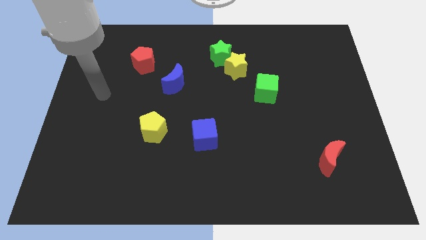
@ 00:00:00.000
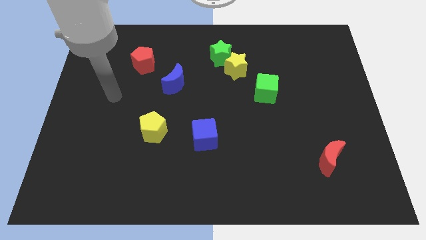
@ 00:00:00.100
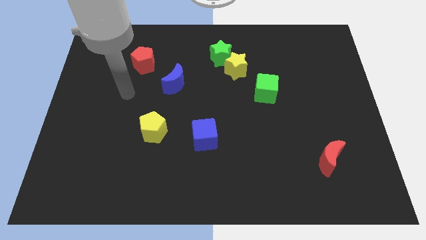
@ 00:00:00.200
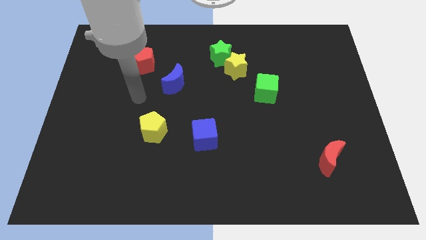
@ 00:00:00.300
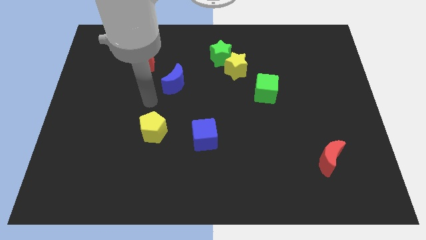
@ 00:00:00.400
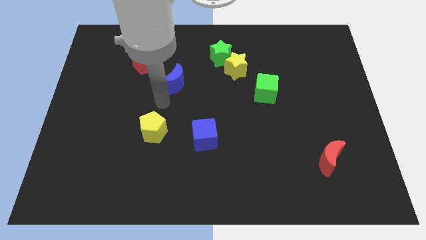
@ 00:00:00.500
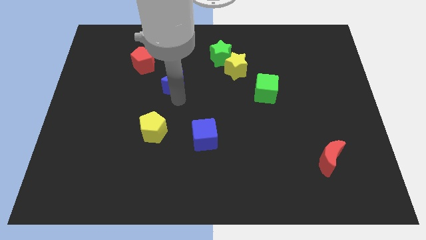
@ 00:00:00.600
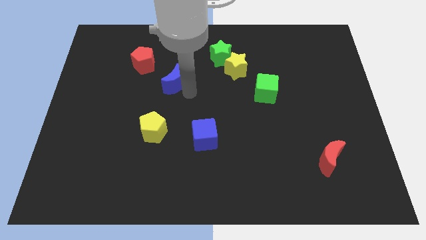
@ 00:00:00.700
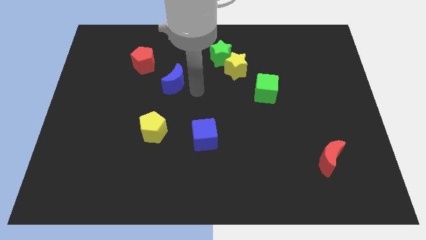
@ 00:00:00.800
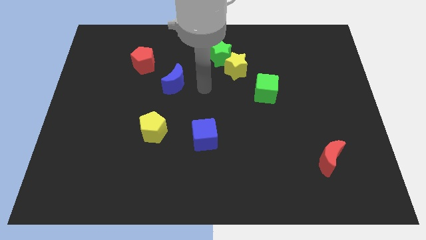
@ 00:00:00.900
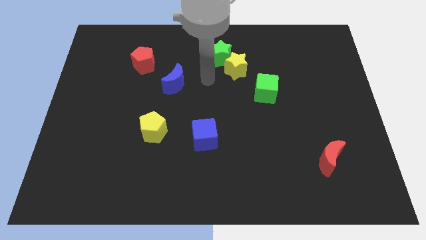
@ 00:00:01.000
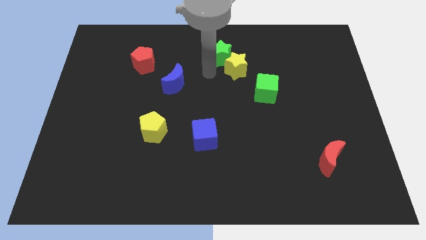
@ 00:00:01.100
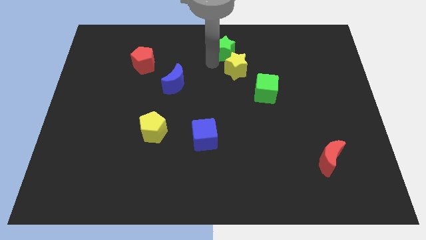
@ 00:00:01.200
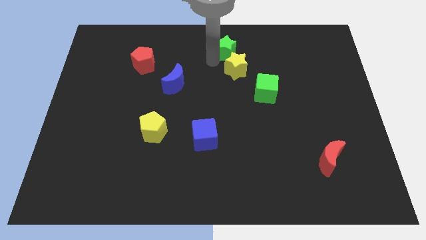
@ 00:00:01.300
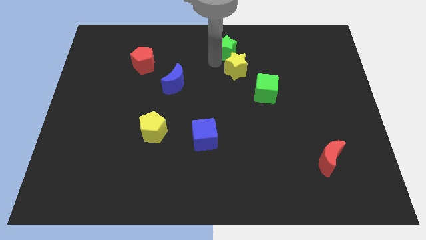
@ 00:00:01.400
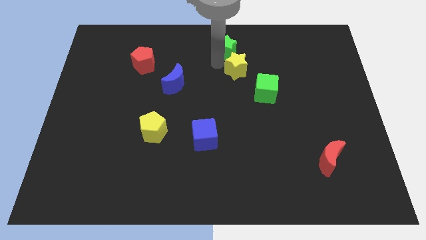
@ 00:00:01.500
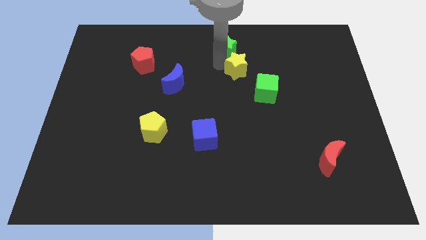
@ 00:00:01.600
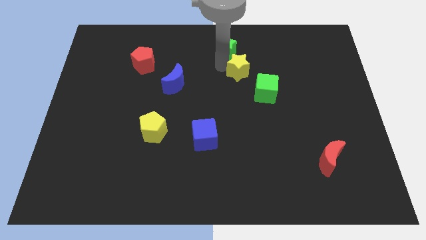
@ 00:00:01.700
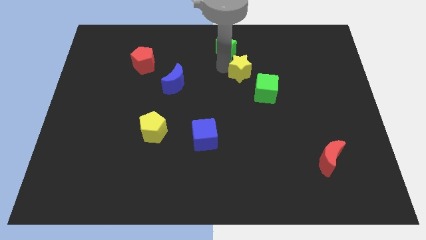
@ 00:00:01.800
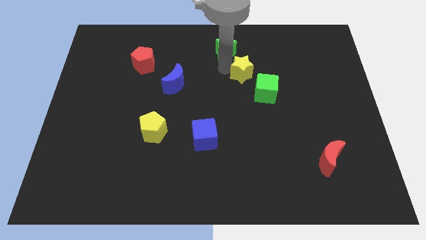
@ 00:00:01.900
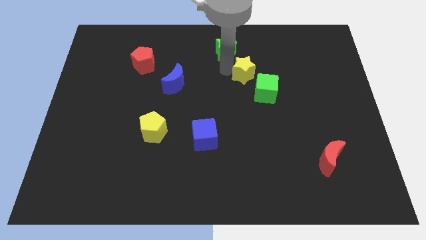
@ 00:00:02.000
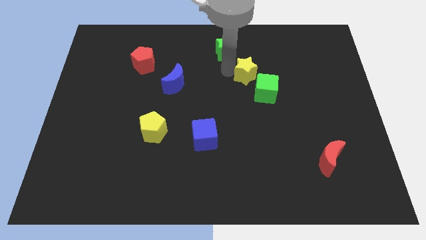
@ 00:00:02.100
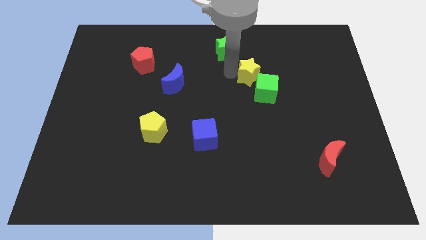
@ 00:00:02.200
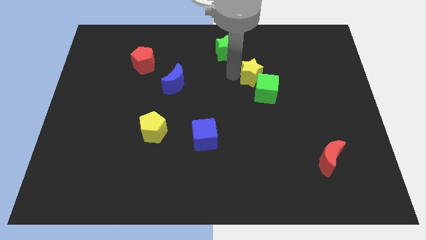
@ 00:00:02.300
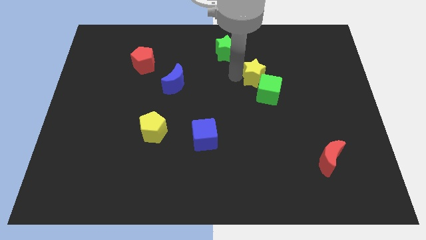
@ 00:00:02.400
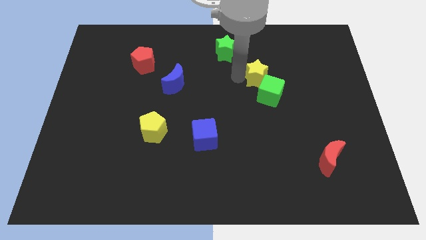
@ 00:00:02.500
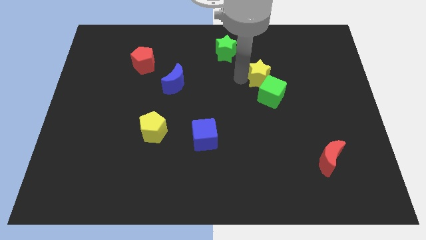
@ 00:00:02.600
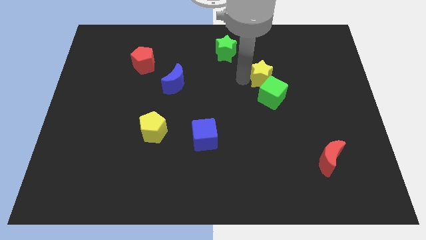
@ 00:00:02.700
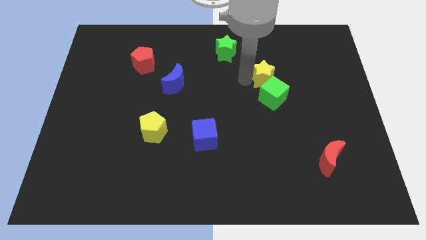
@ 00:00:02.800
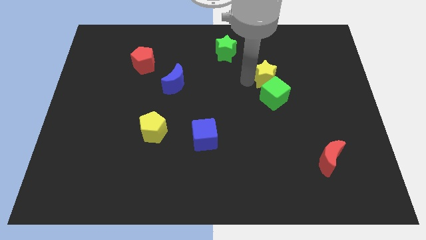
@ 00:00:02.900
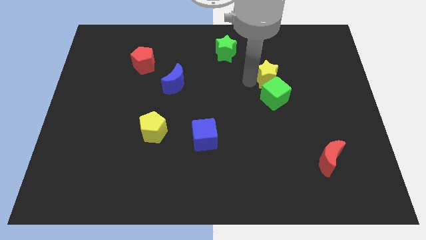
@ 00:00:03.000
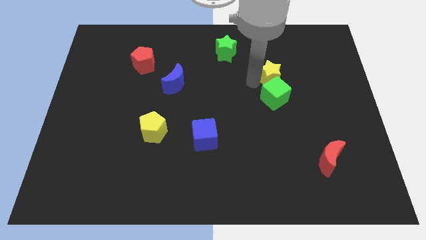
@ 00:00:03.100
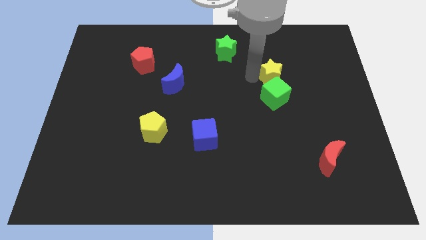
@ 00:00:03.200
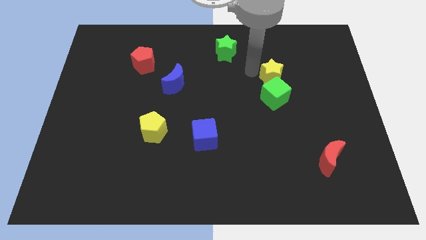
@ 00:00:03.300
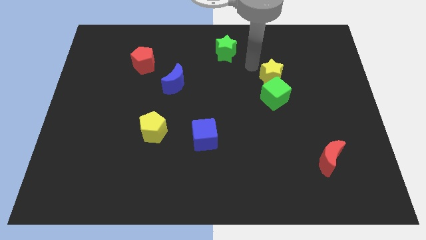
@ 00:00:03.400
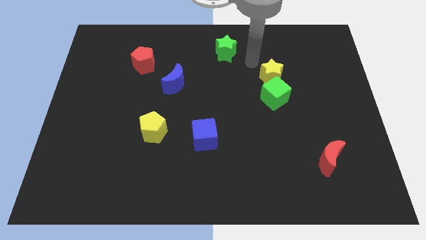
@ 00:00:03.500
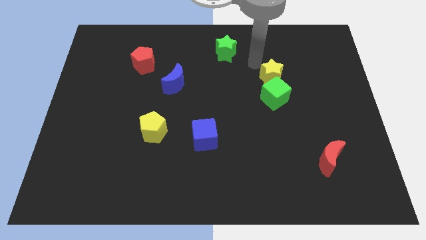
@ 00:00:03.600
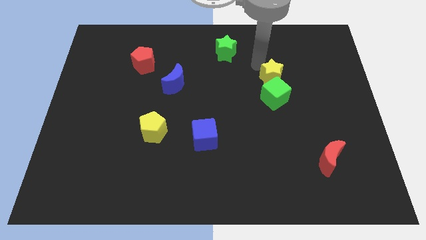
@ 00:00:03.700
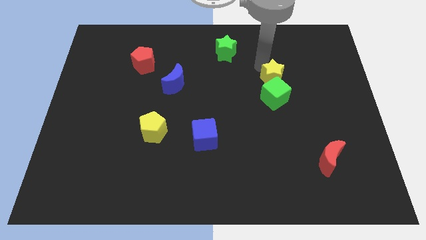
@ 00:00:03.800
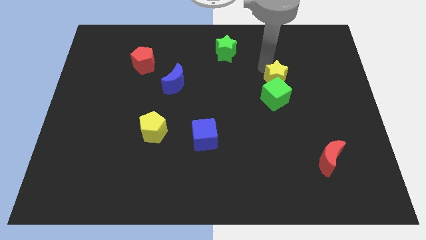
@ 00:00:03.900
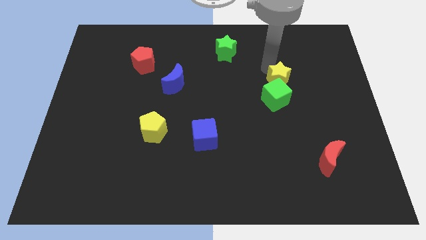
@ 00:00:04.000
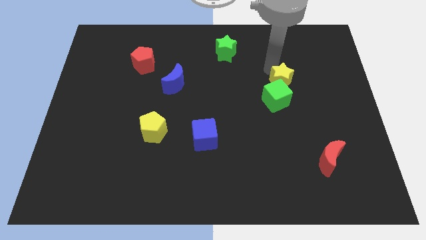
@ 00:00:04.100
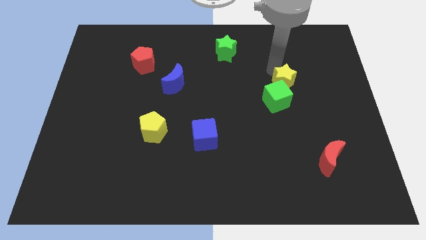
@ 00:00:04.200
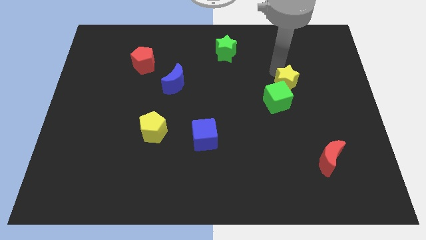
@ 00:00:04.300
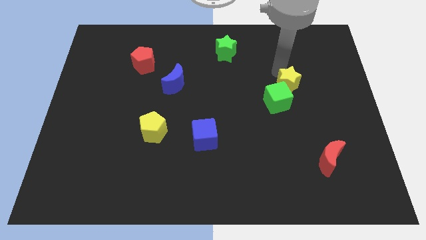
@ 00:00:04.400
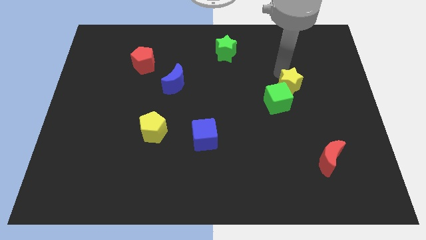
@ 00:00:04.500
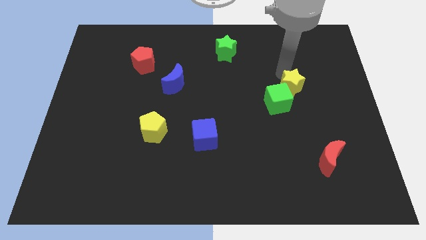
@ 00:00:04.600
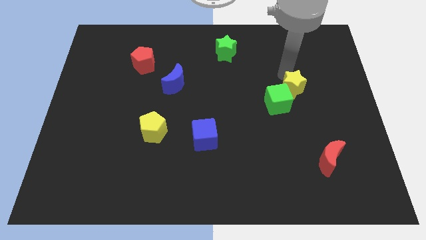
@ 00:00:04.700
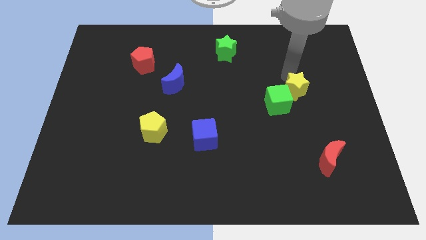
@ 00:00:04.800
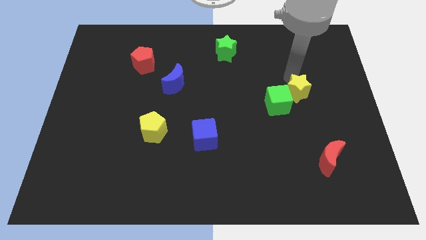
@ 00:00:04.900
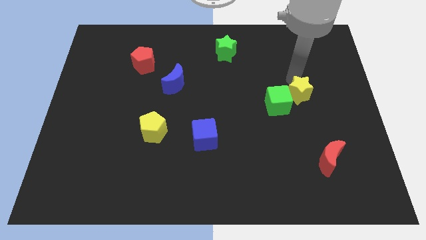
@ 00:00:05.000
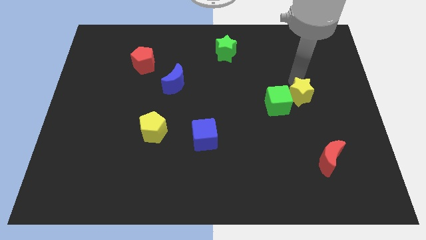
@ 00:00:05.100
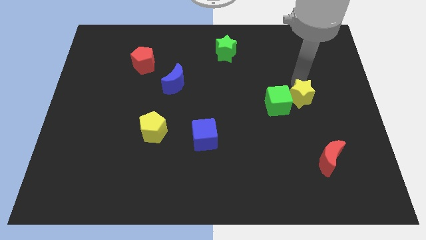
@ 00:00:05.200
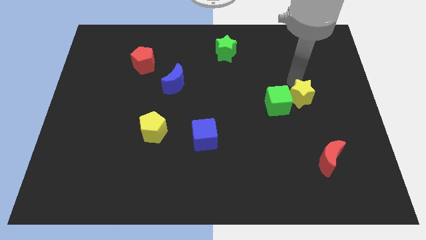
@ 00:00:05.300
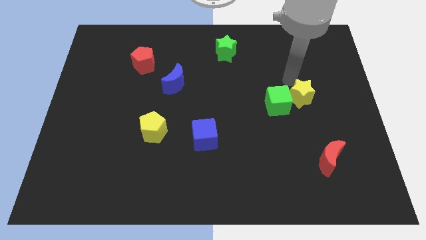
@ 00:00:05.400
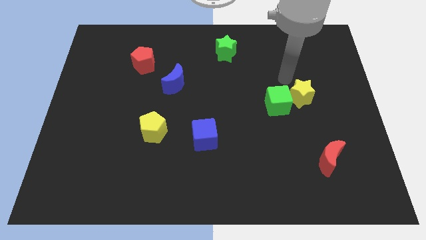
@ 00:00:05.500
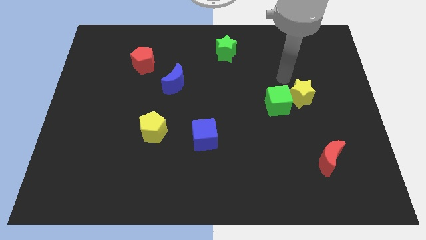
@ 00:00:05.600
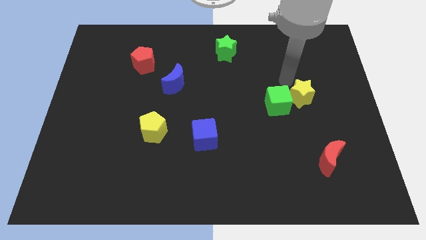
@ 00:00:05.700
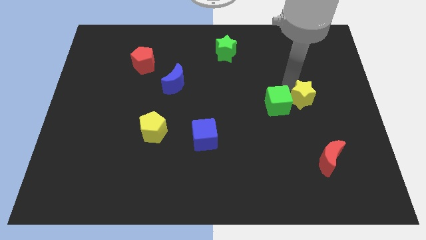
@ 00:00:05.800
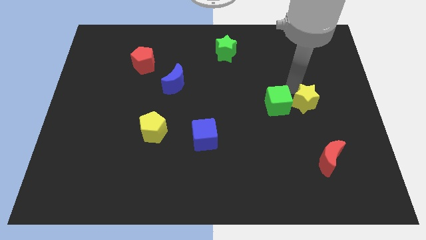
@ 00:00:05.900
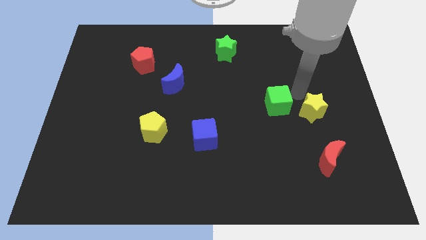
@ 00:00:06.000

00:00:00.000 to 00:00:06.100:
move the yellow star down and to the right diagonally

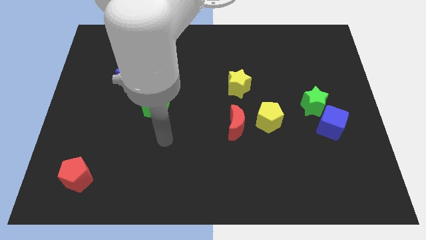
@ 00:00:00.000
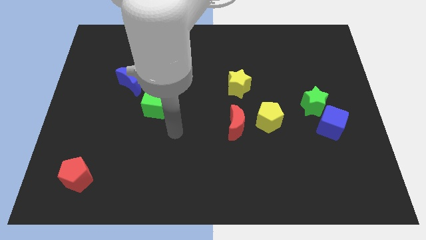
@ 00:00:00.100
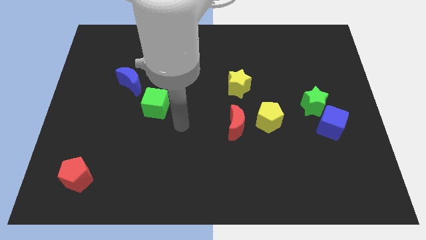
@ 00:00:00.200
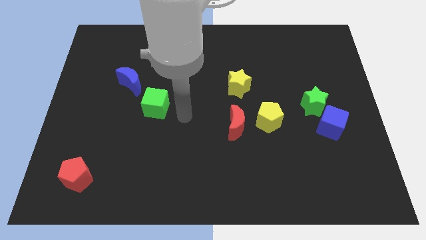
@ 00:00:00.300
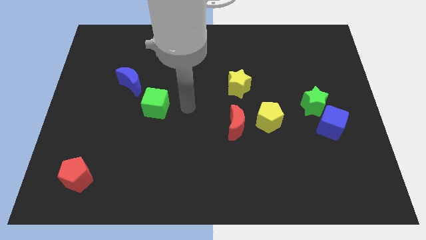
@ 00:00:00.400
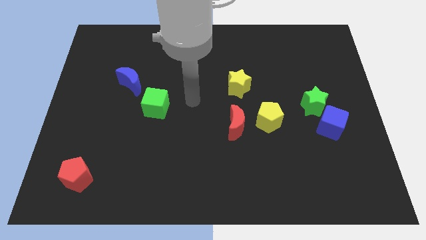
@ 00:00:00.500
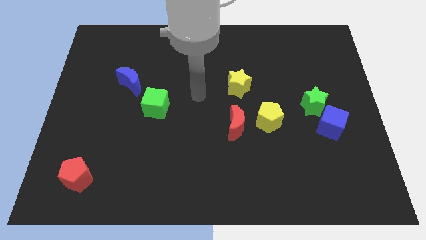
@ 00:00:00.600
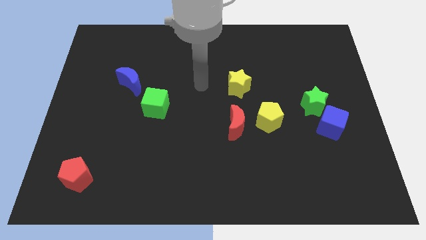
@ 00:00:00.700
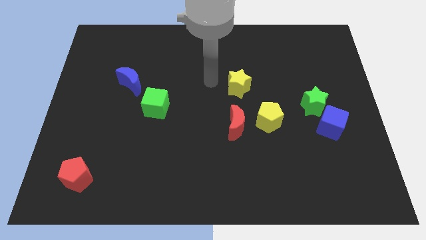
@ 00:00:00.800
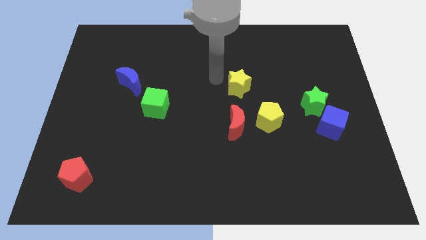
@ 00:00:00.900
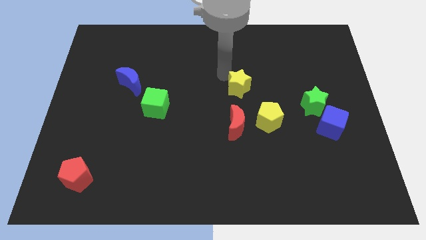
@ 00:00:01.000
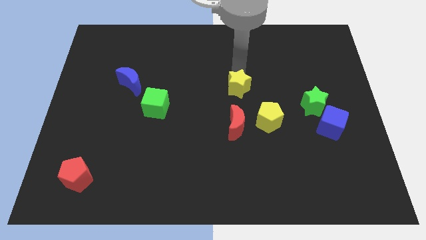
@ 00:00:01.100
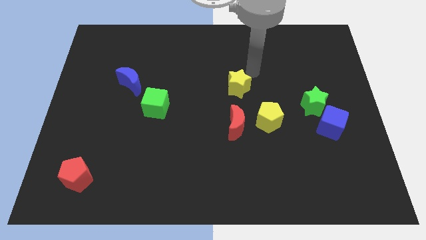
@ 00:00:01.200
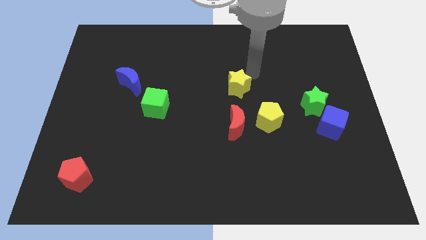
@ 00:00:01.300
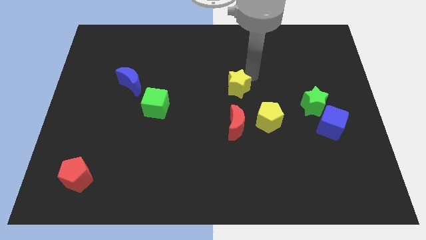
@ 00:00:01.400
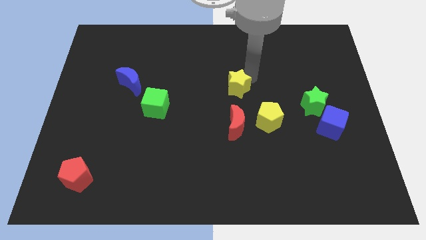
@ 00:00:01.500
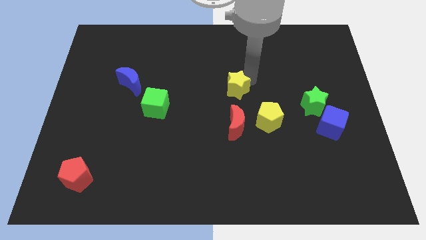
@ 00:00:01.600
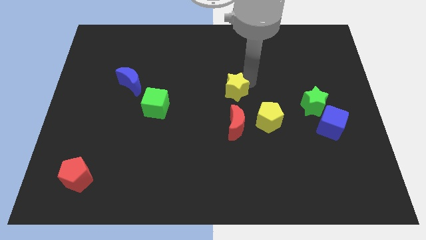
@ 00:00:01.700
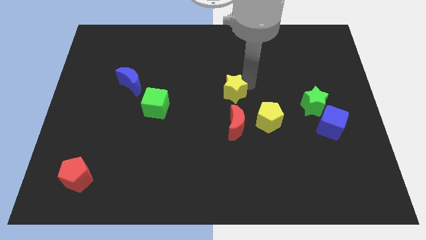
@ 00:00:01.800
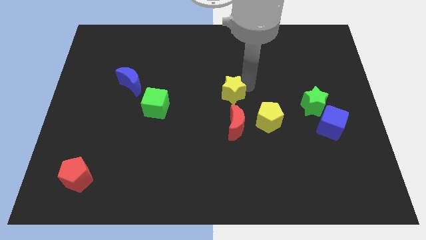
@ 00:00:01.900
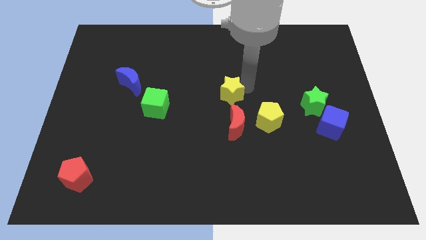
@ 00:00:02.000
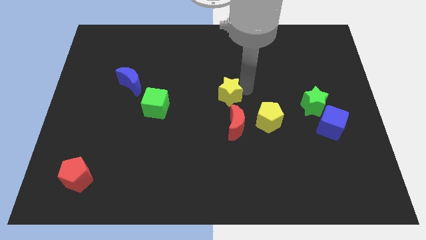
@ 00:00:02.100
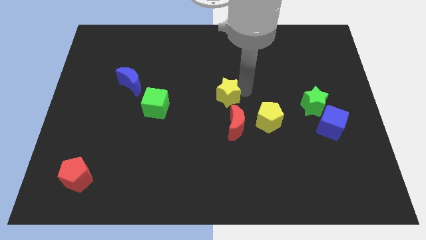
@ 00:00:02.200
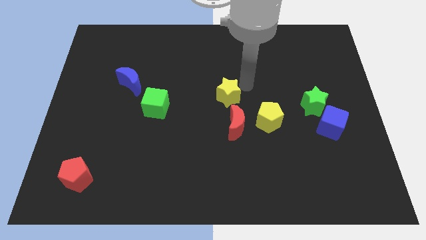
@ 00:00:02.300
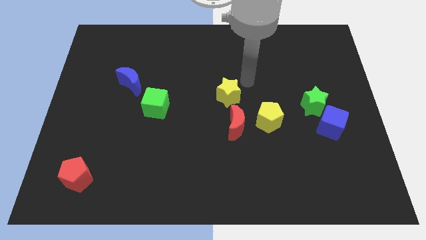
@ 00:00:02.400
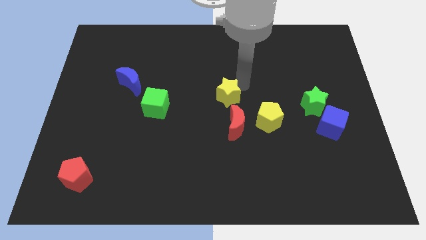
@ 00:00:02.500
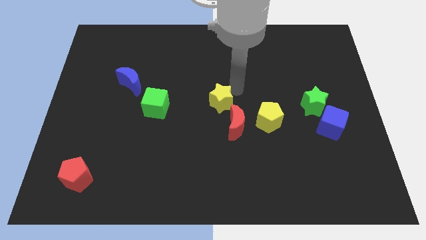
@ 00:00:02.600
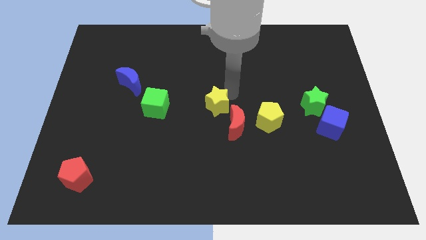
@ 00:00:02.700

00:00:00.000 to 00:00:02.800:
slide the yellow star a bit down and then left
